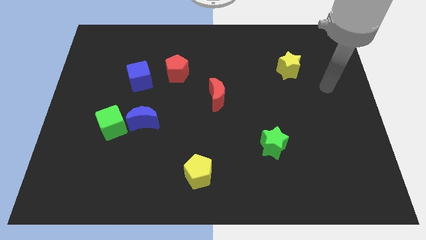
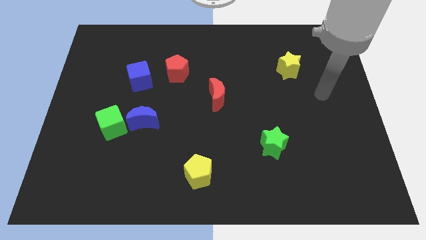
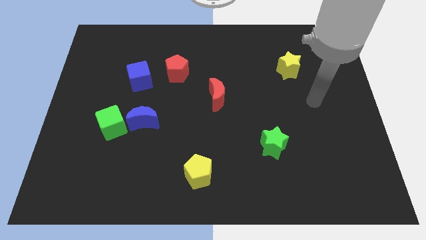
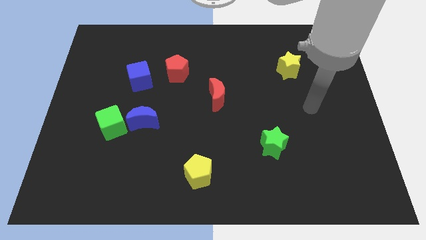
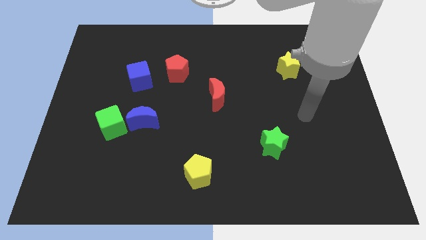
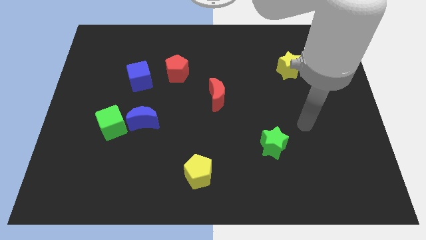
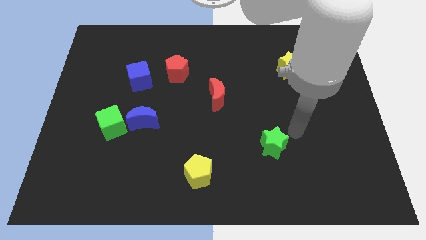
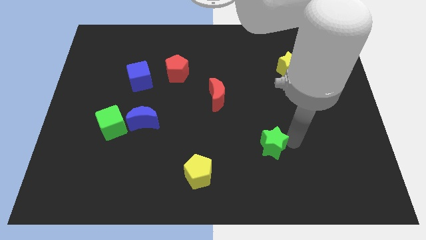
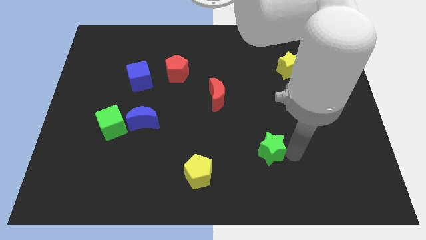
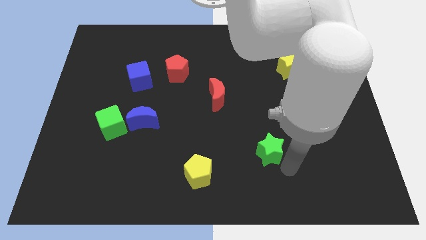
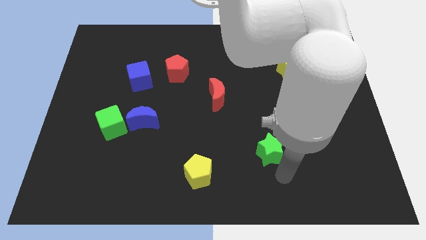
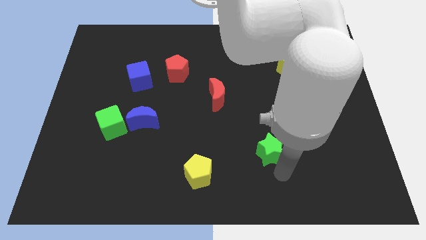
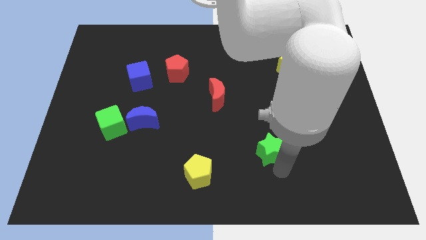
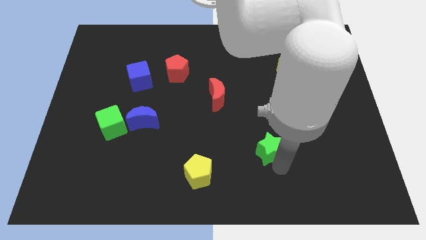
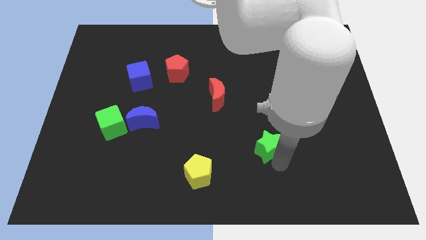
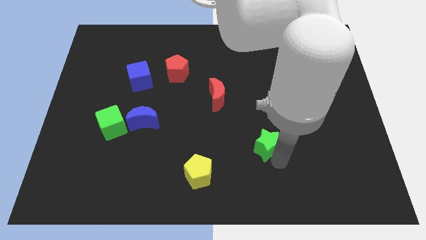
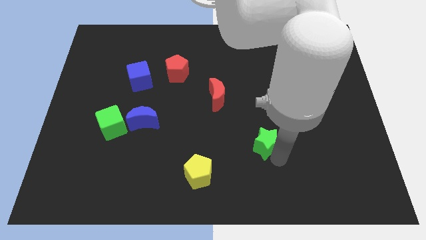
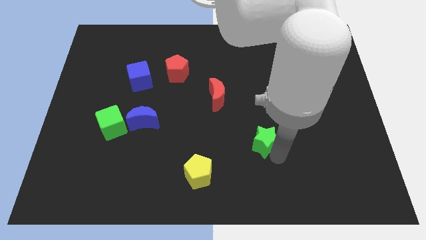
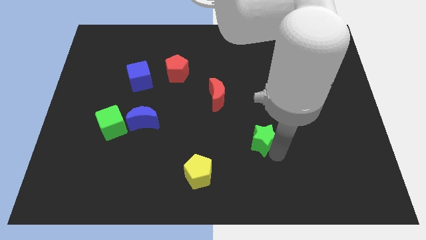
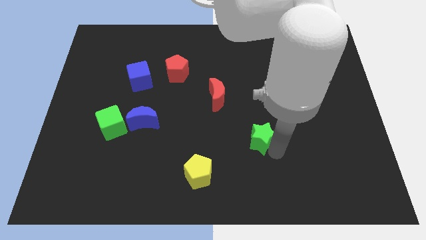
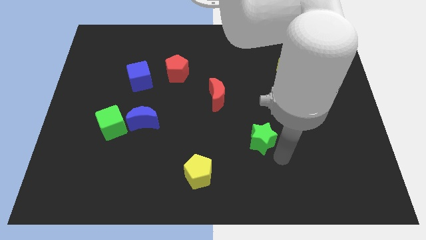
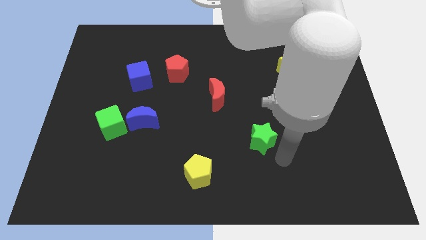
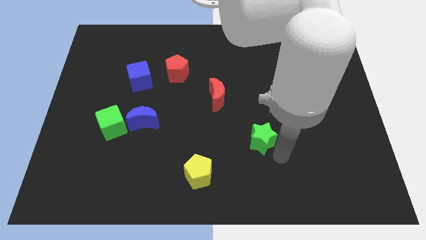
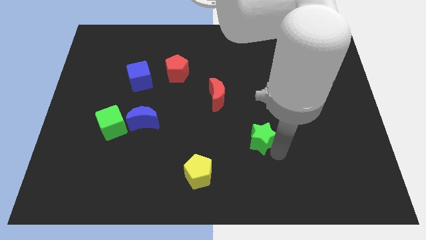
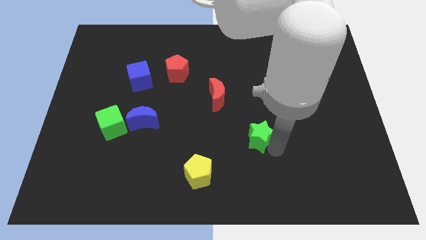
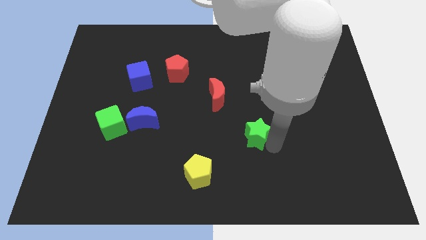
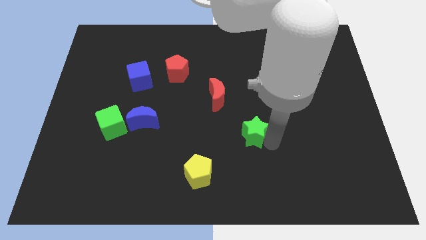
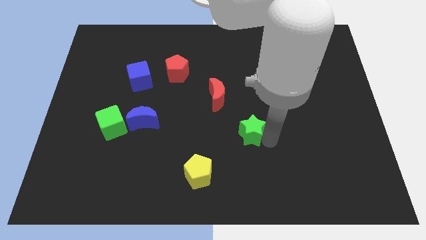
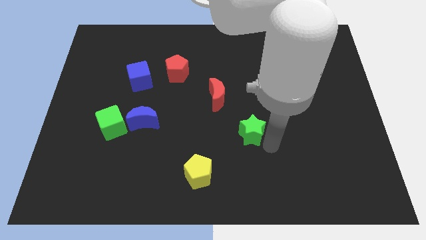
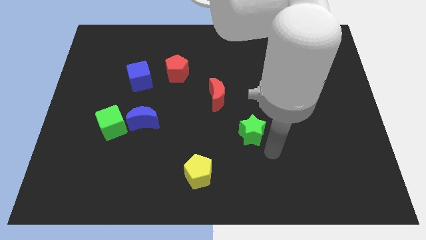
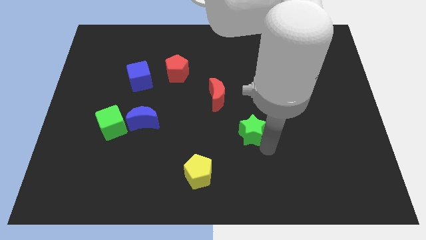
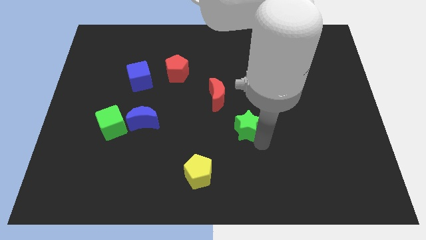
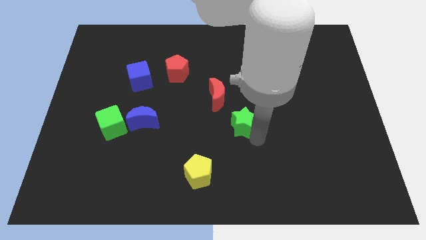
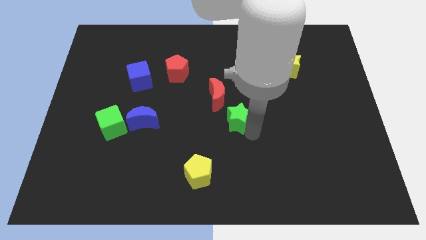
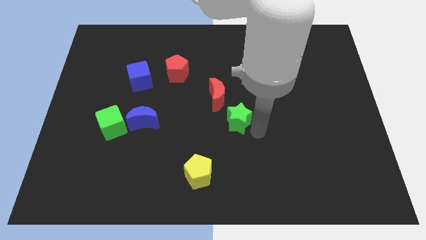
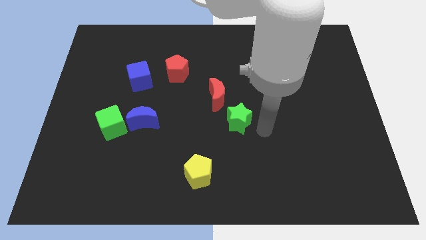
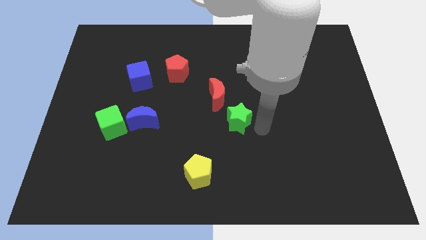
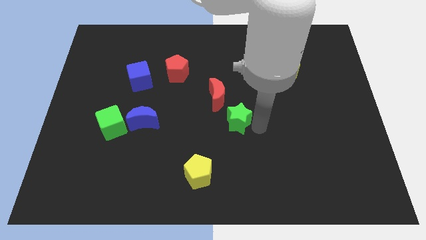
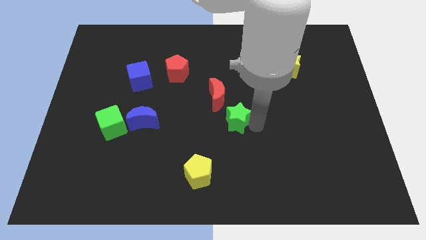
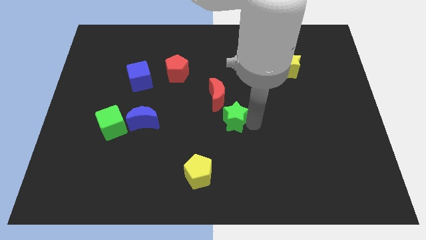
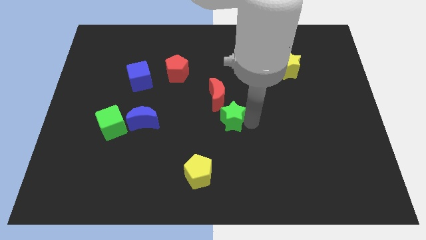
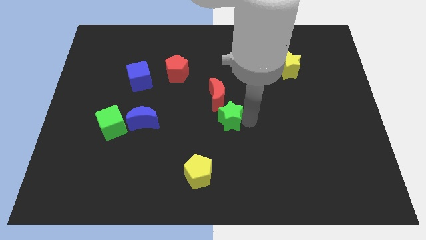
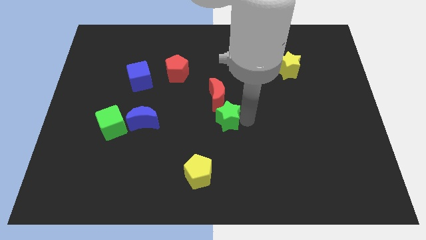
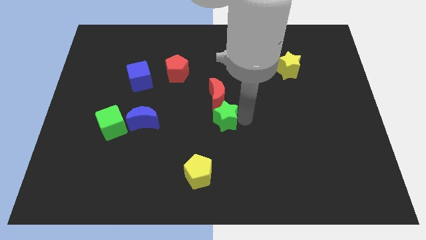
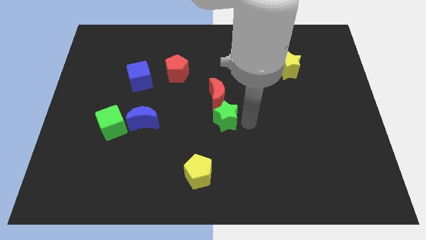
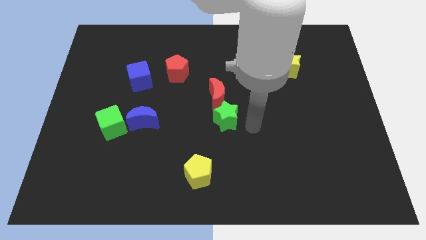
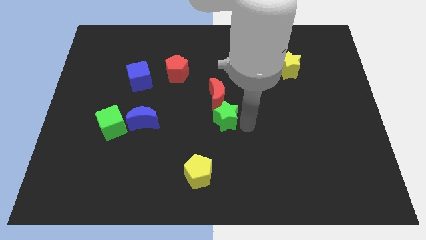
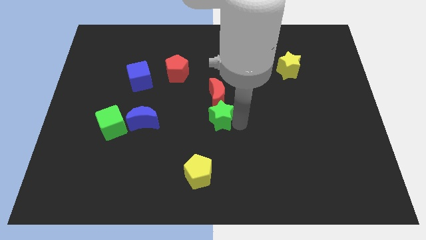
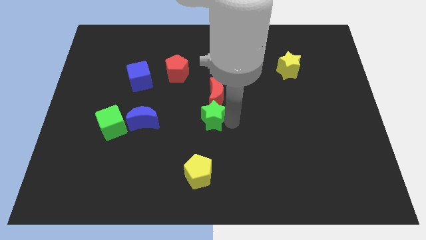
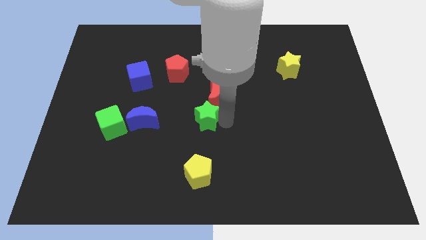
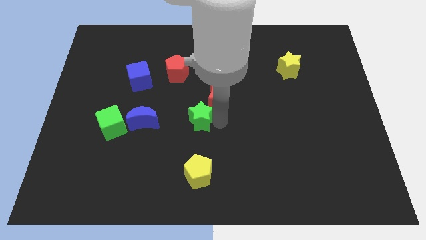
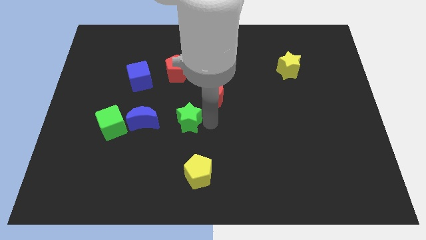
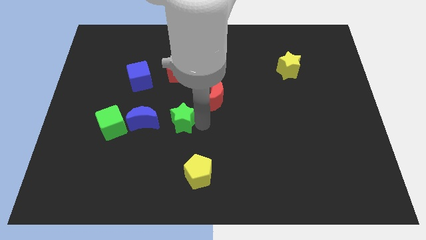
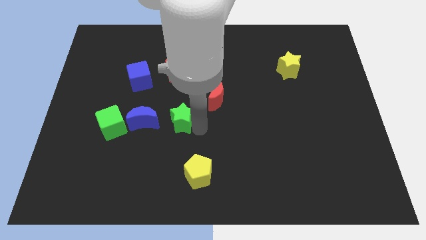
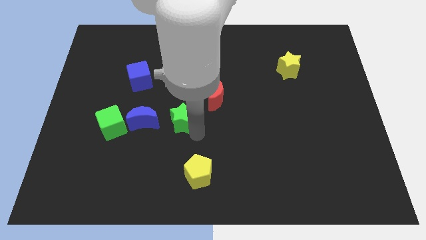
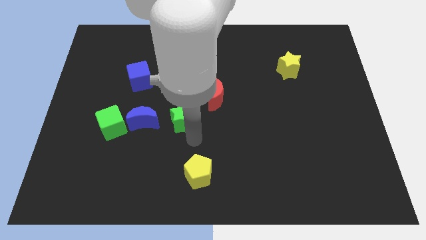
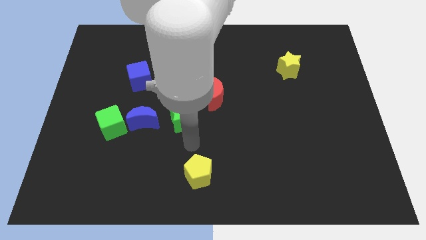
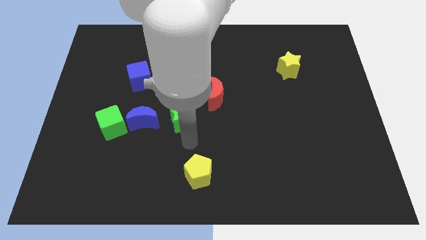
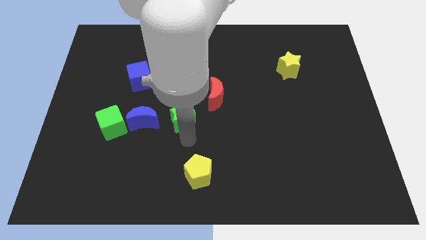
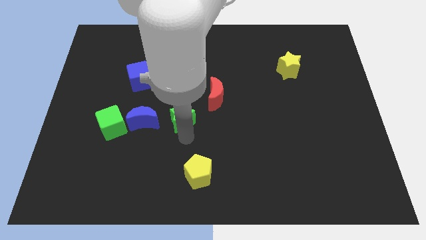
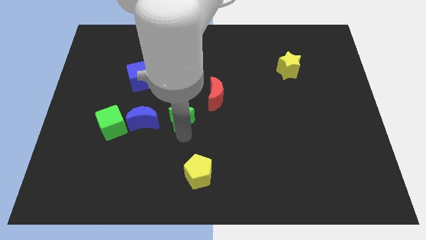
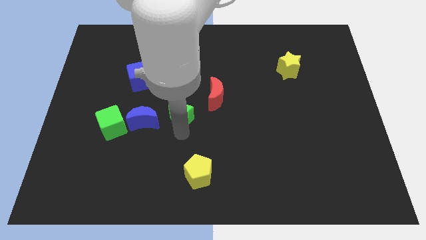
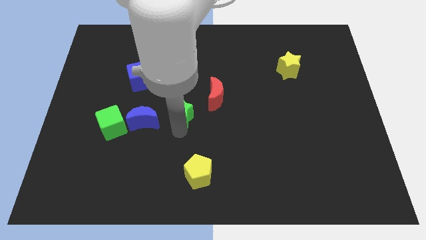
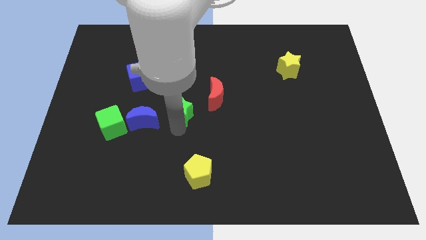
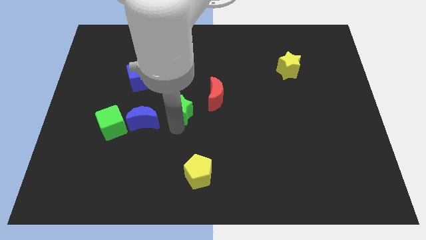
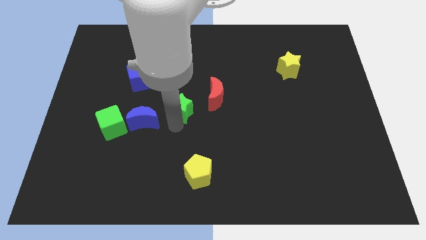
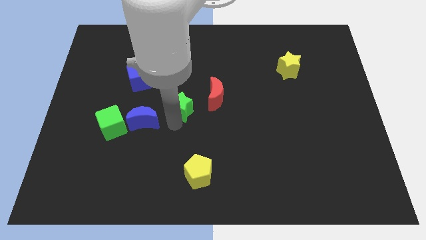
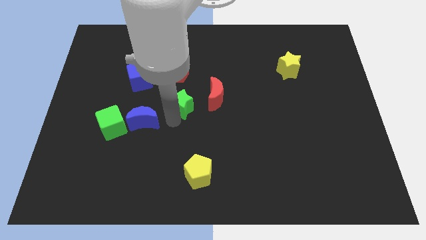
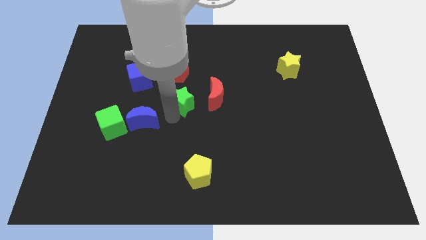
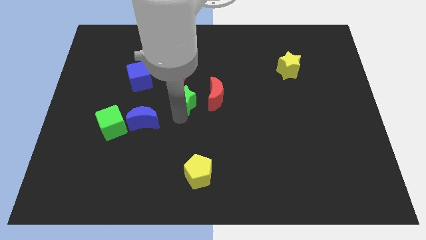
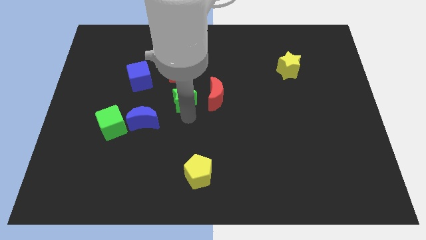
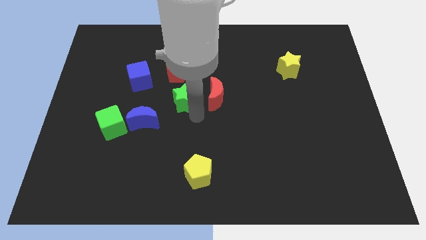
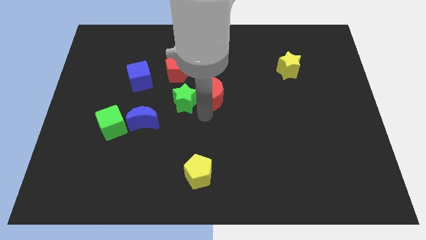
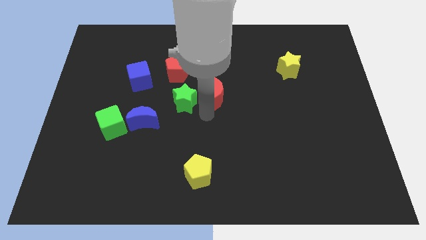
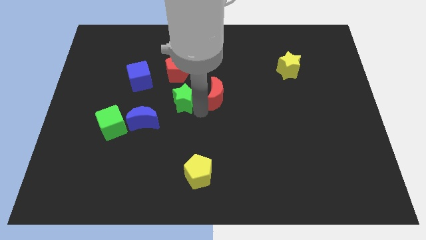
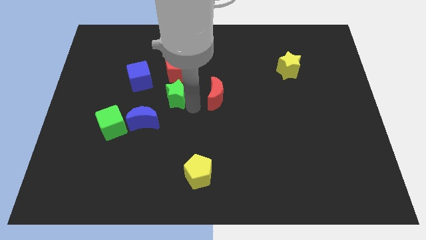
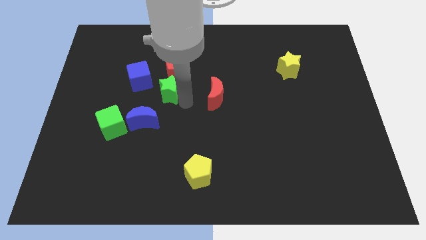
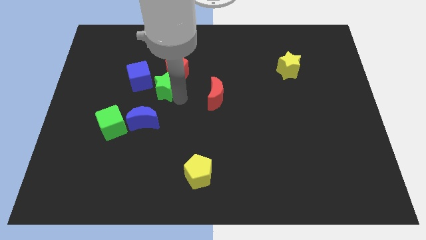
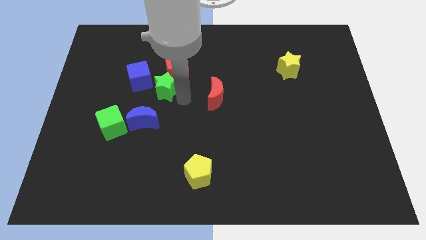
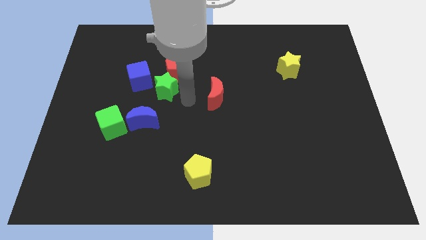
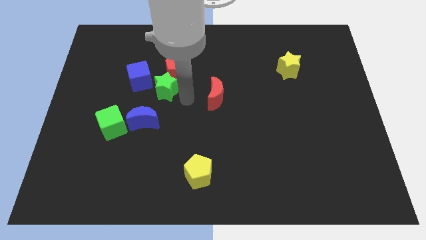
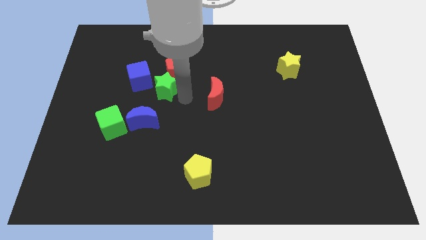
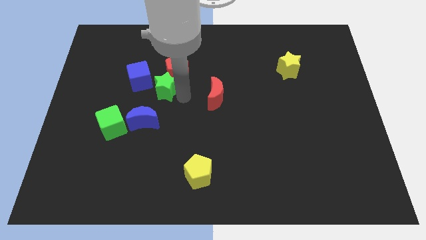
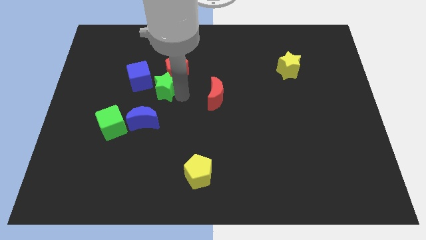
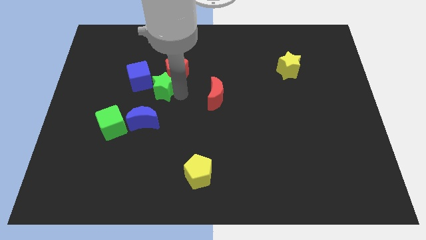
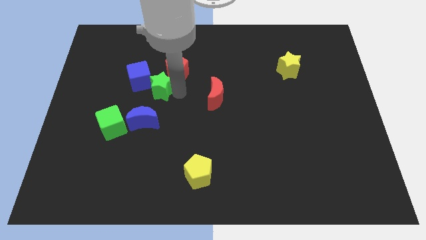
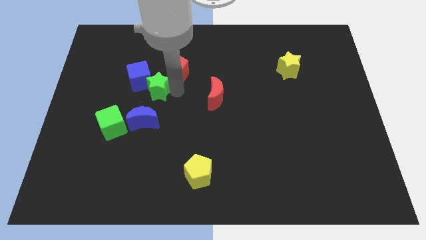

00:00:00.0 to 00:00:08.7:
push the green star to the blue cube
